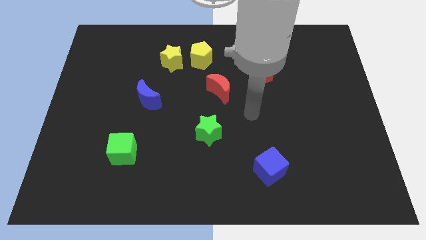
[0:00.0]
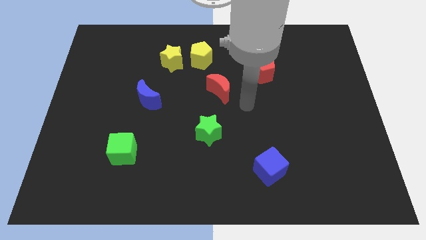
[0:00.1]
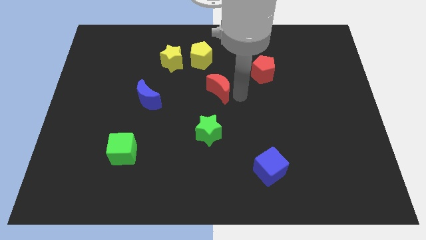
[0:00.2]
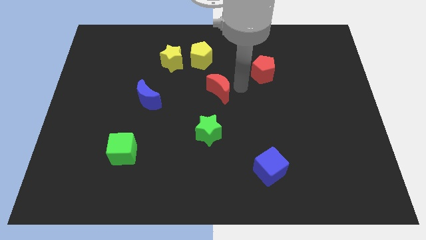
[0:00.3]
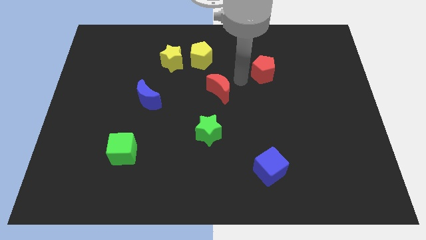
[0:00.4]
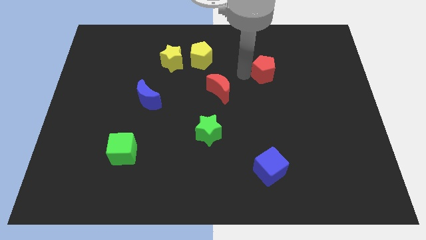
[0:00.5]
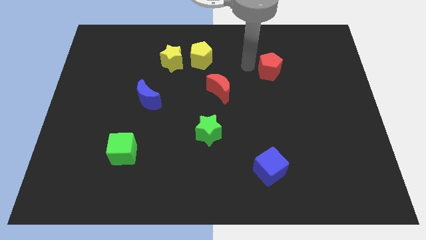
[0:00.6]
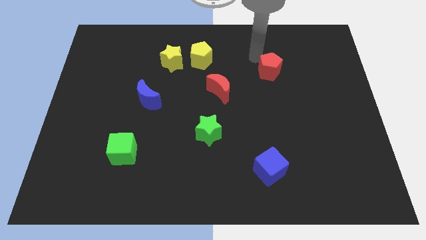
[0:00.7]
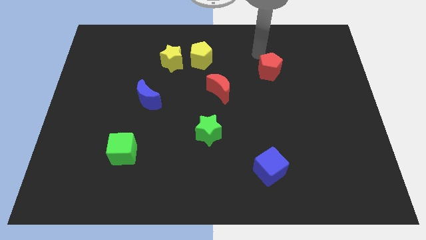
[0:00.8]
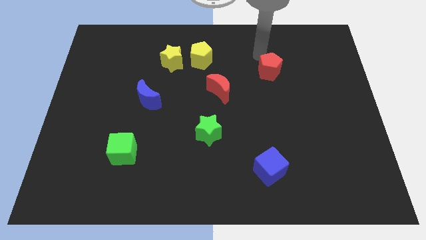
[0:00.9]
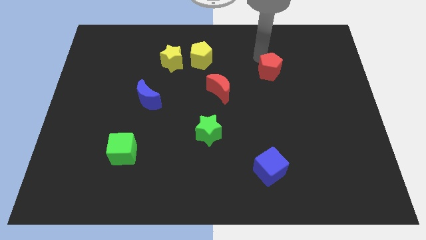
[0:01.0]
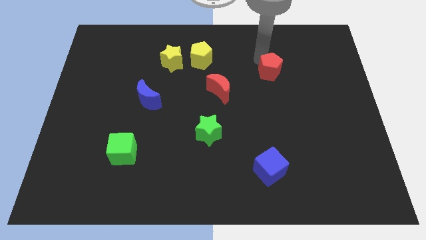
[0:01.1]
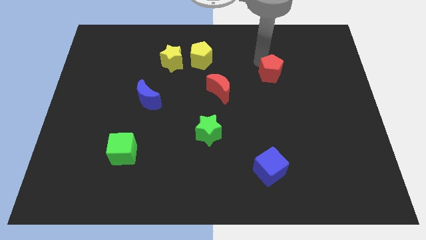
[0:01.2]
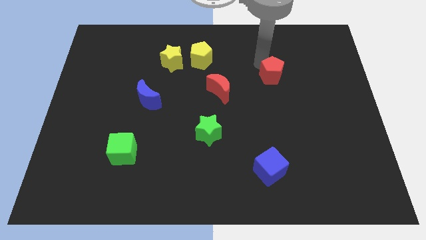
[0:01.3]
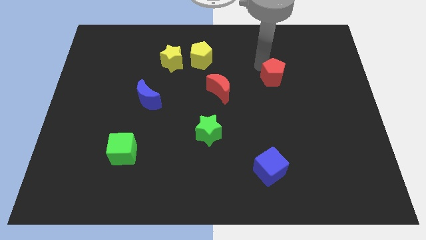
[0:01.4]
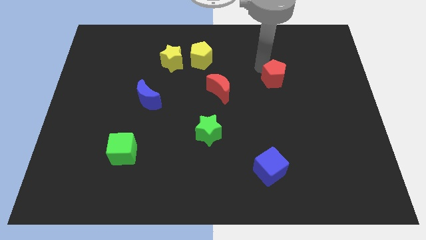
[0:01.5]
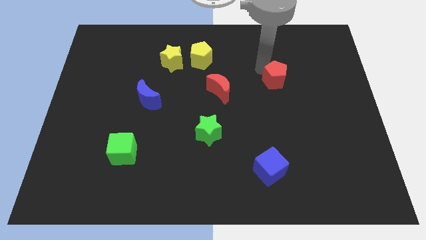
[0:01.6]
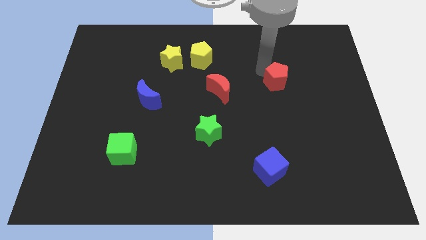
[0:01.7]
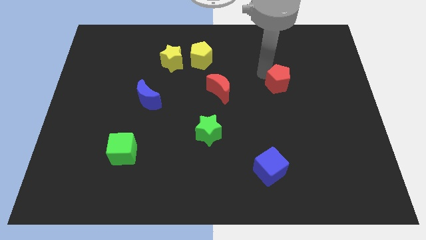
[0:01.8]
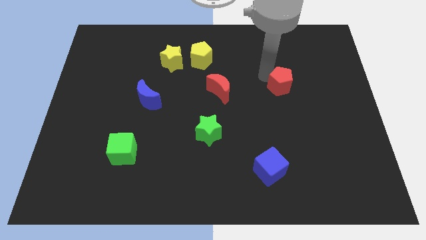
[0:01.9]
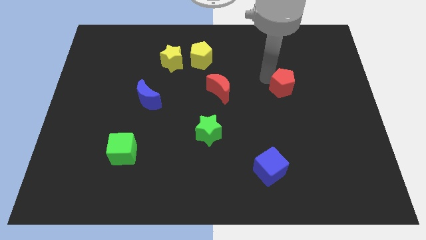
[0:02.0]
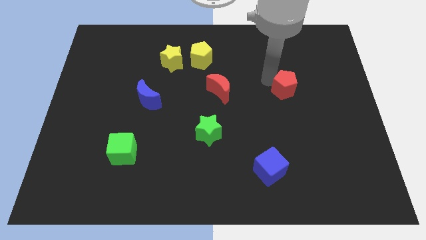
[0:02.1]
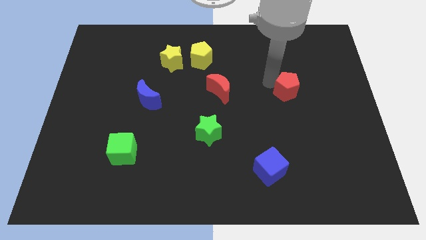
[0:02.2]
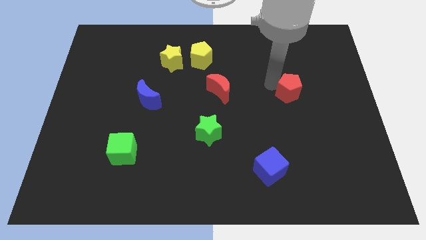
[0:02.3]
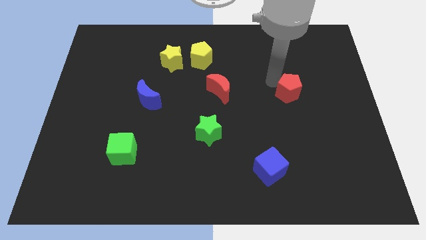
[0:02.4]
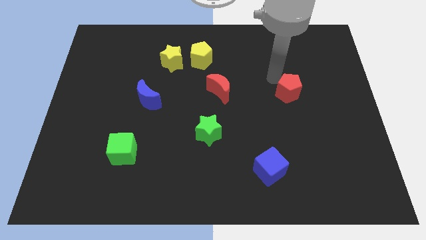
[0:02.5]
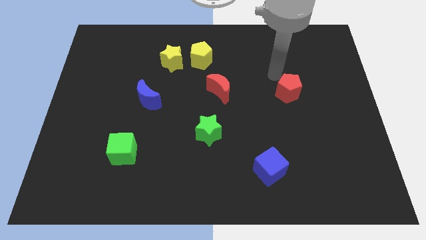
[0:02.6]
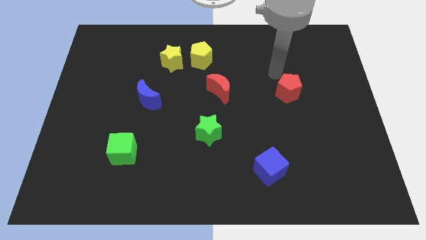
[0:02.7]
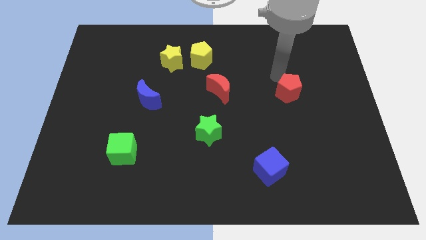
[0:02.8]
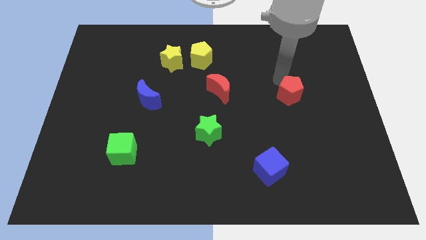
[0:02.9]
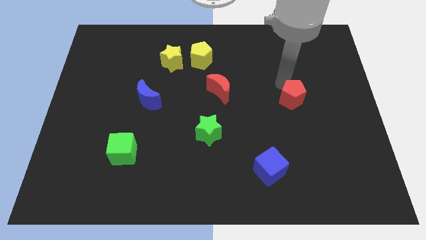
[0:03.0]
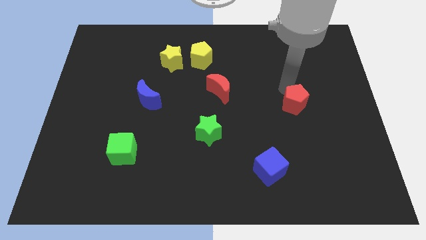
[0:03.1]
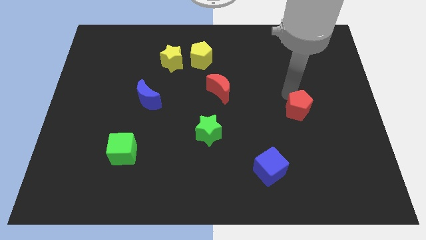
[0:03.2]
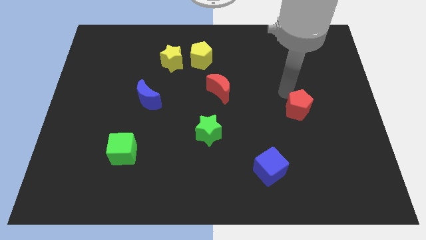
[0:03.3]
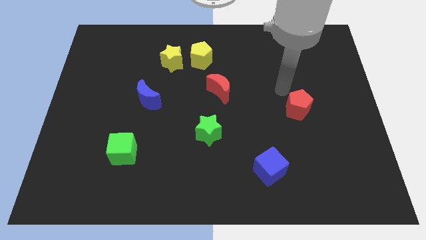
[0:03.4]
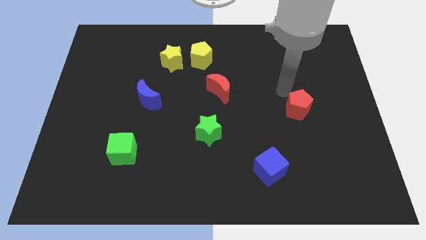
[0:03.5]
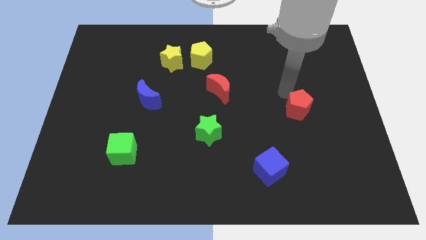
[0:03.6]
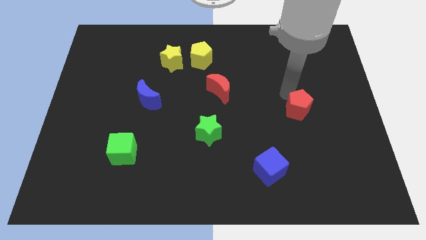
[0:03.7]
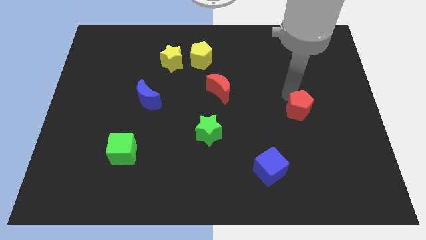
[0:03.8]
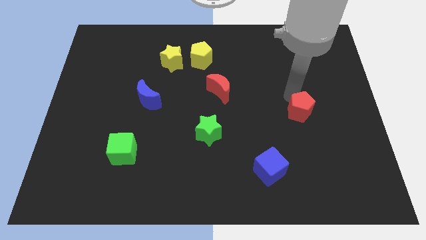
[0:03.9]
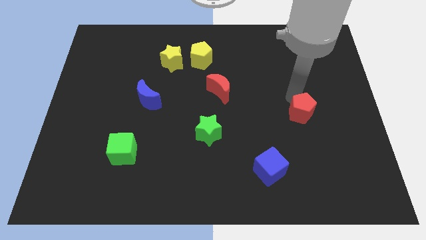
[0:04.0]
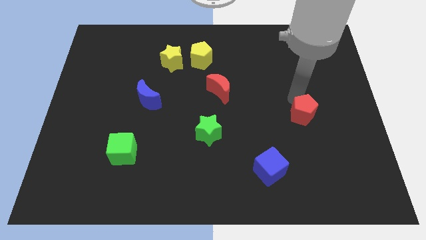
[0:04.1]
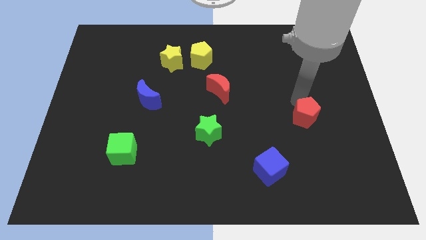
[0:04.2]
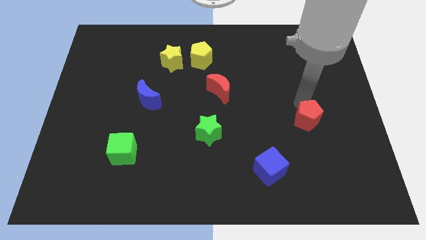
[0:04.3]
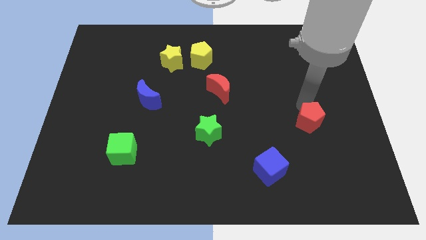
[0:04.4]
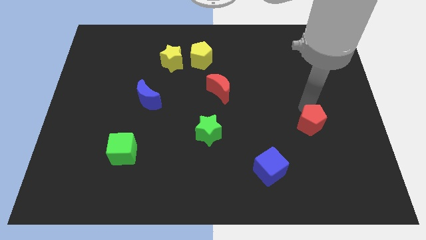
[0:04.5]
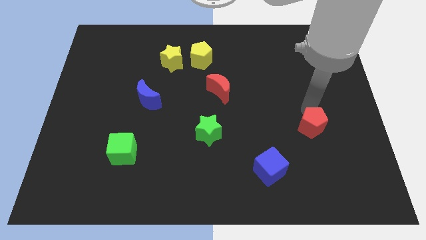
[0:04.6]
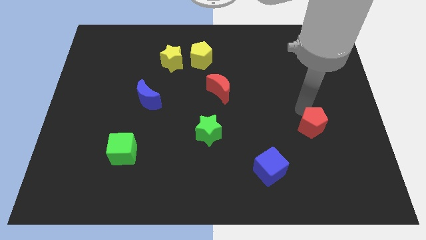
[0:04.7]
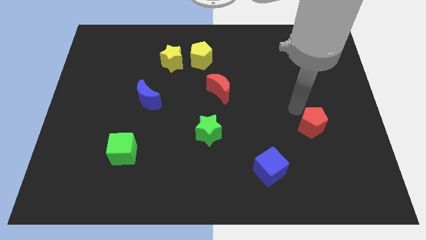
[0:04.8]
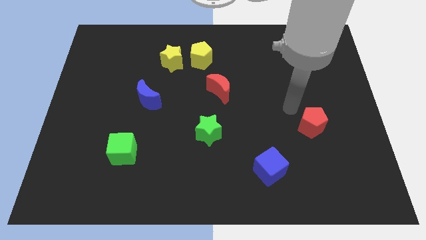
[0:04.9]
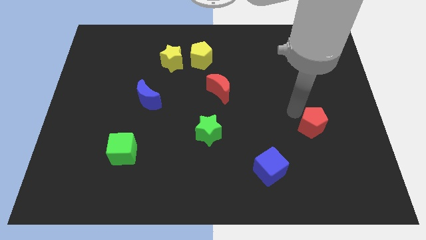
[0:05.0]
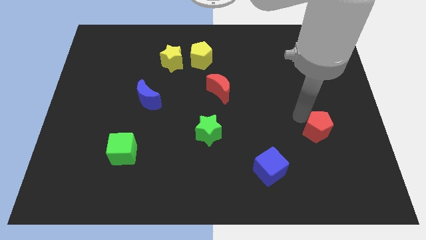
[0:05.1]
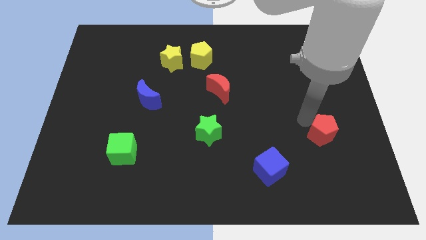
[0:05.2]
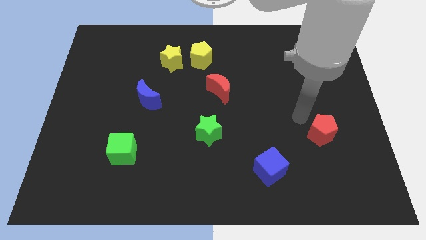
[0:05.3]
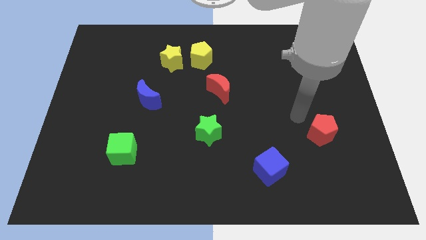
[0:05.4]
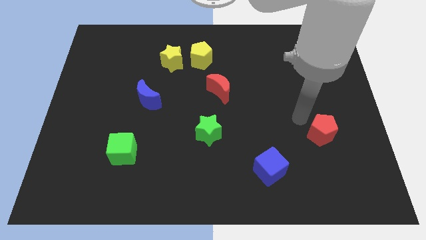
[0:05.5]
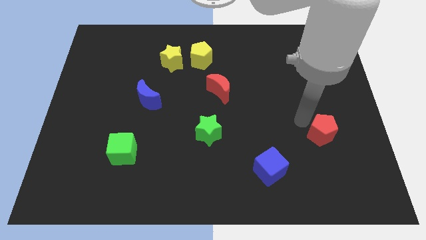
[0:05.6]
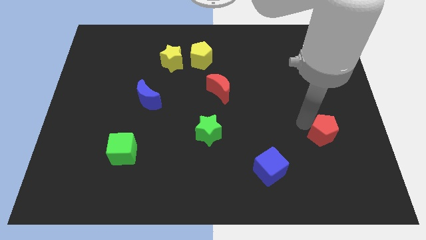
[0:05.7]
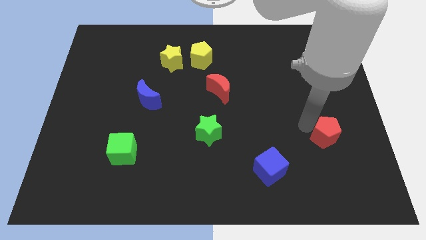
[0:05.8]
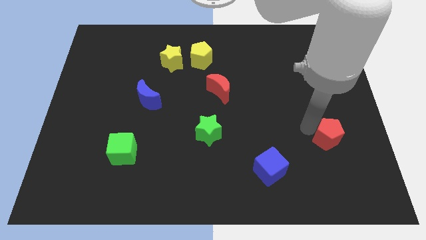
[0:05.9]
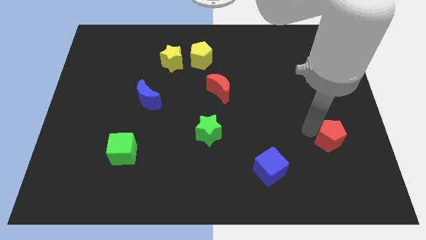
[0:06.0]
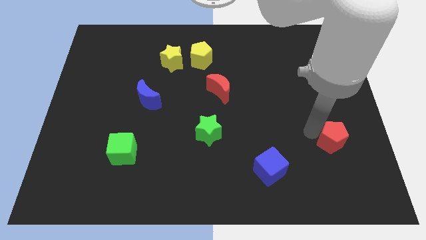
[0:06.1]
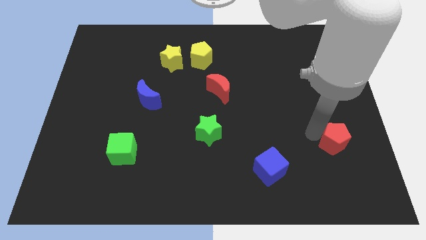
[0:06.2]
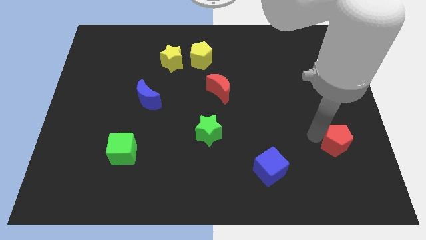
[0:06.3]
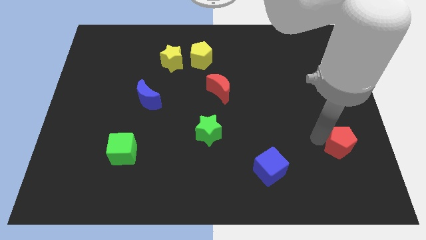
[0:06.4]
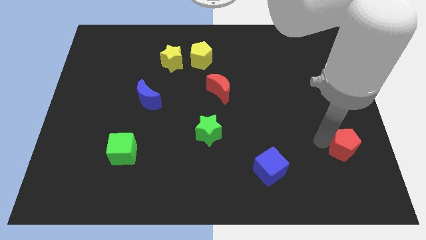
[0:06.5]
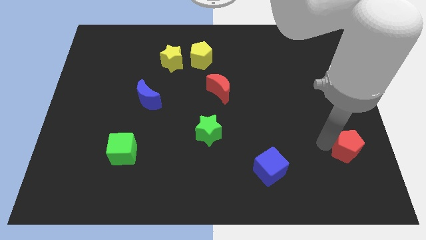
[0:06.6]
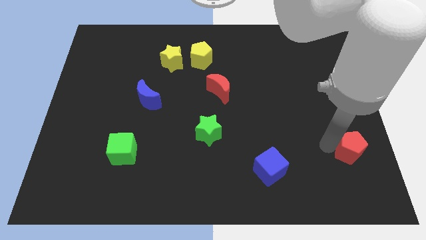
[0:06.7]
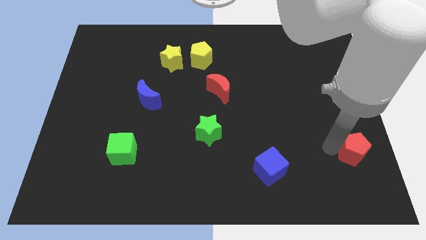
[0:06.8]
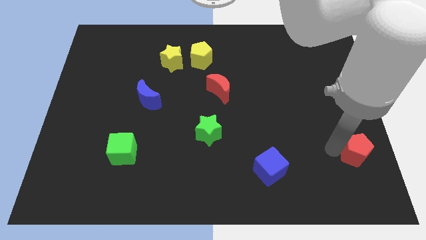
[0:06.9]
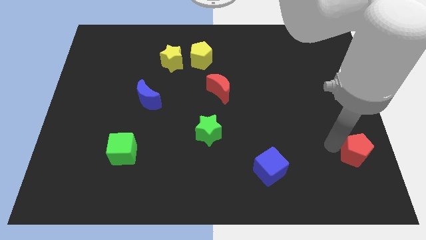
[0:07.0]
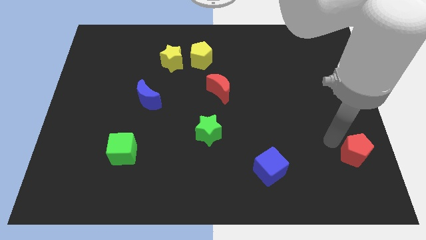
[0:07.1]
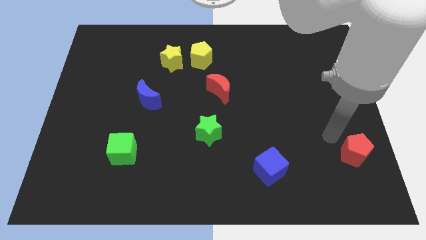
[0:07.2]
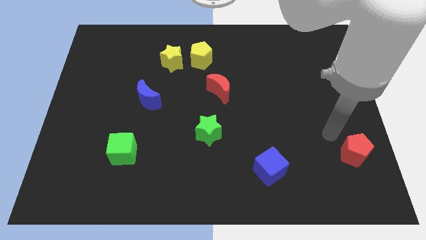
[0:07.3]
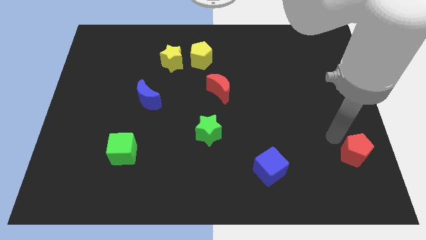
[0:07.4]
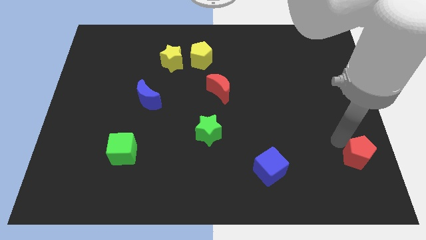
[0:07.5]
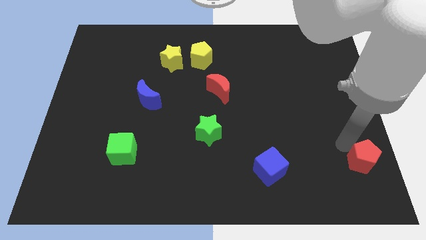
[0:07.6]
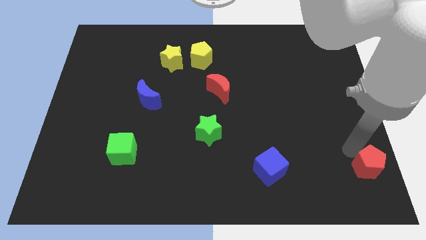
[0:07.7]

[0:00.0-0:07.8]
put the red pentagon to the bottom right
